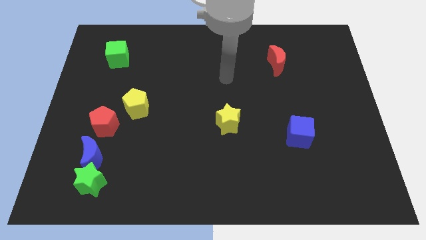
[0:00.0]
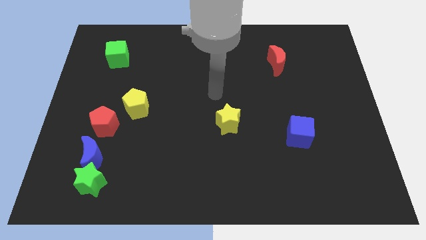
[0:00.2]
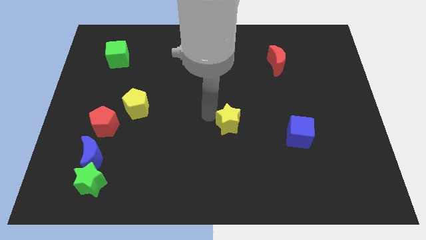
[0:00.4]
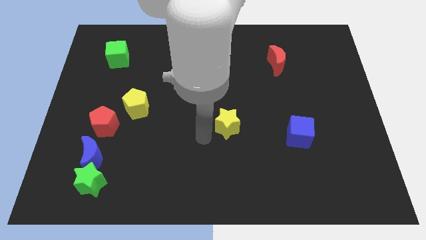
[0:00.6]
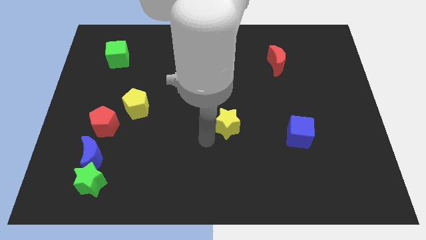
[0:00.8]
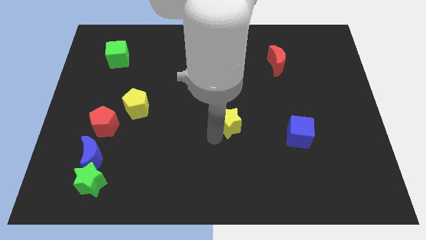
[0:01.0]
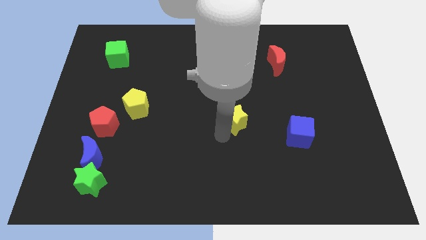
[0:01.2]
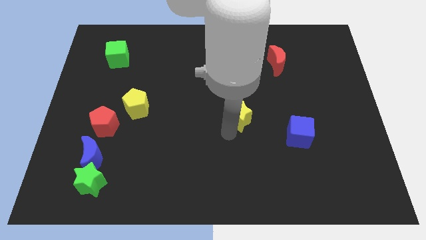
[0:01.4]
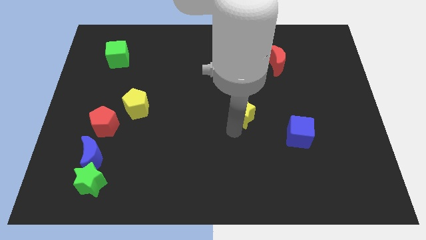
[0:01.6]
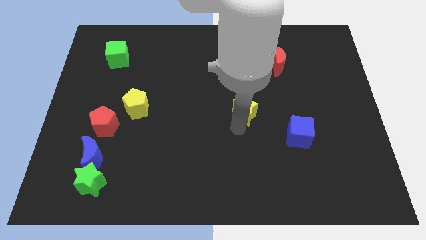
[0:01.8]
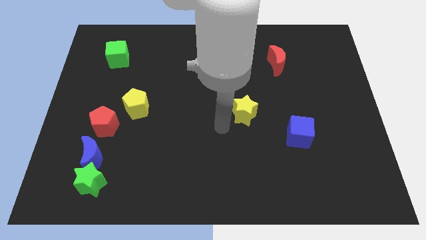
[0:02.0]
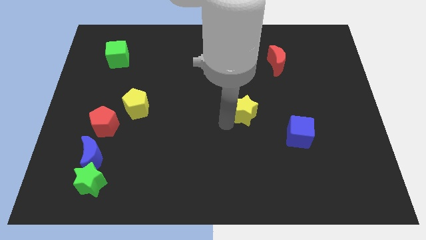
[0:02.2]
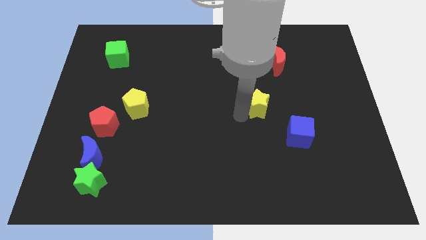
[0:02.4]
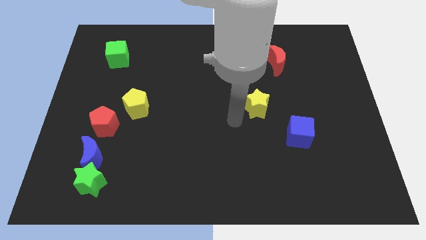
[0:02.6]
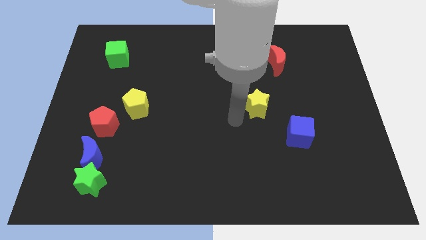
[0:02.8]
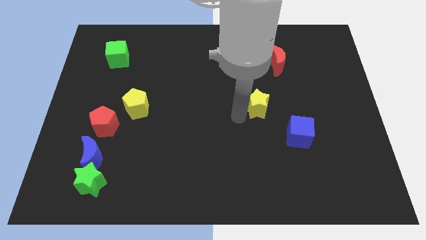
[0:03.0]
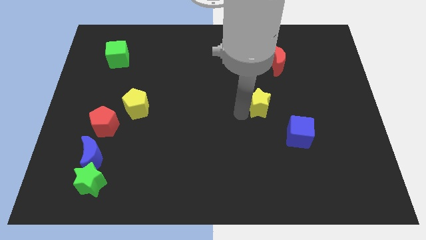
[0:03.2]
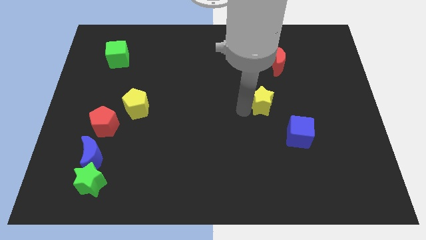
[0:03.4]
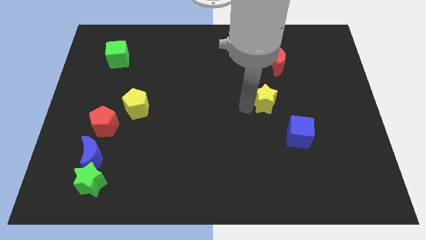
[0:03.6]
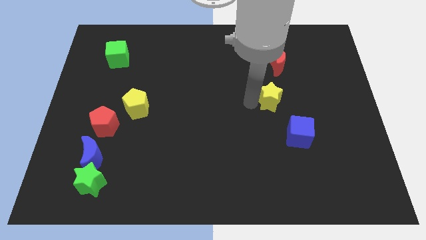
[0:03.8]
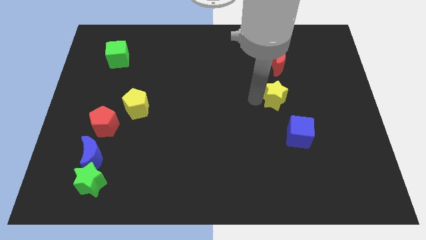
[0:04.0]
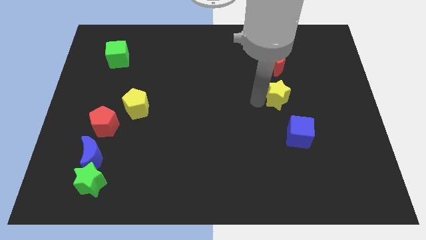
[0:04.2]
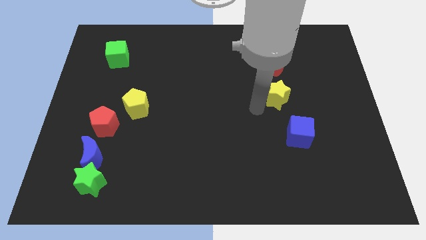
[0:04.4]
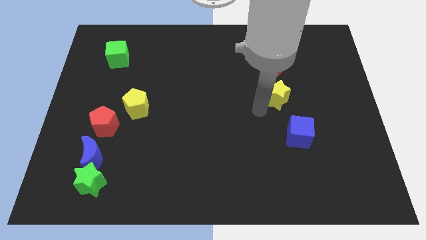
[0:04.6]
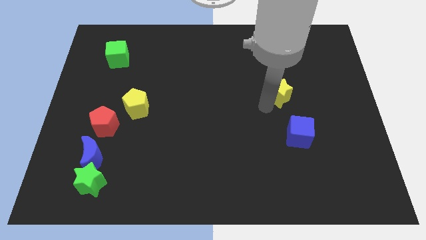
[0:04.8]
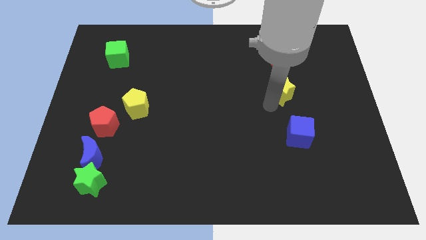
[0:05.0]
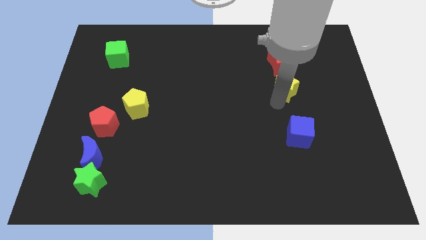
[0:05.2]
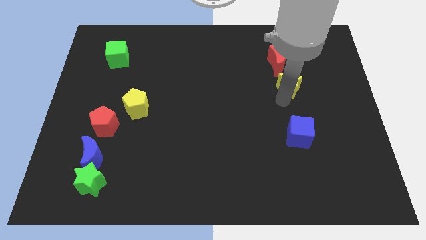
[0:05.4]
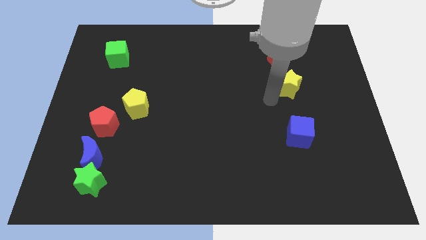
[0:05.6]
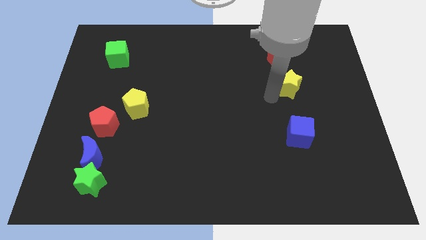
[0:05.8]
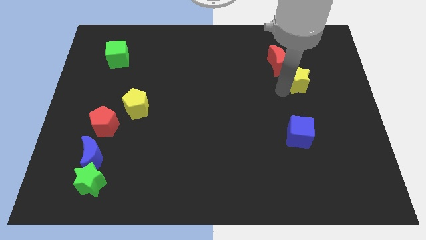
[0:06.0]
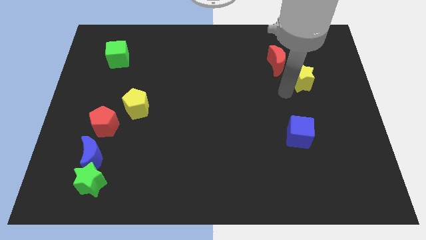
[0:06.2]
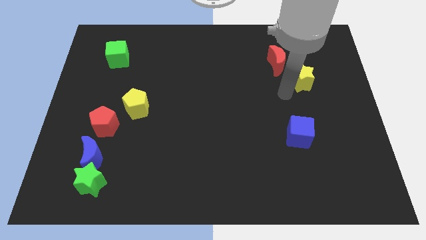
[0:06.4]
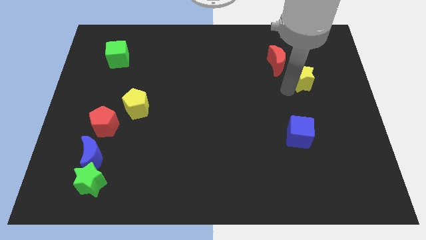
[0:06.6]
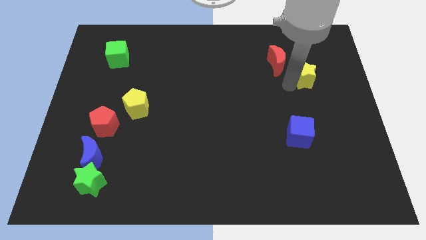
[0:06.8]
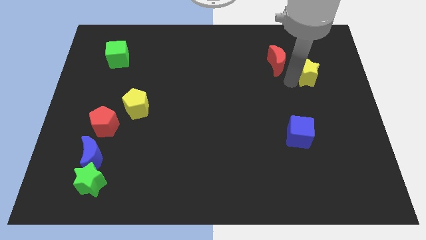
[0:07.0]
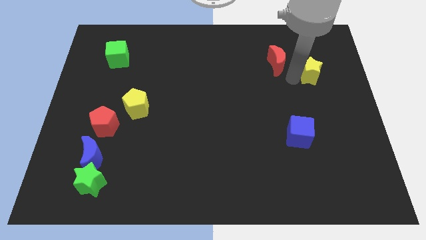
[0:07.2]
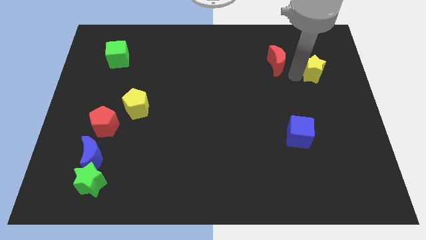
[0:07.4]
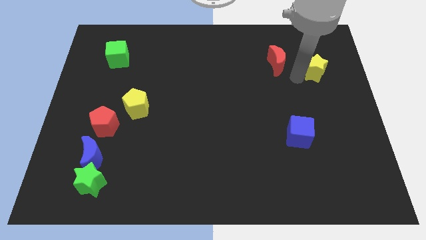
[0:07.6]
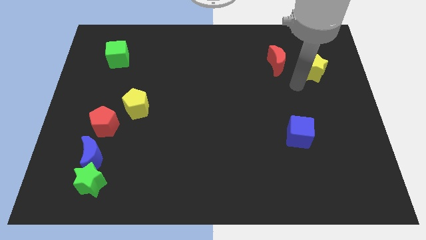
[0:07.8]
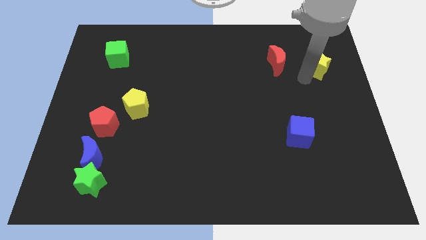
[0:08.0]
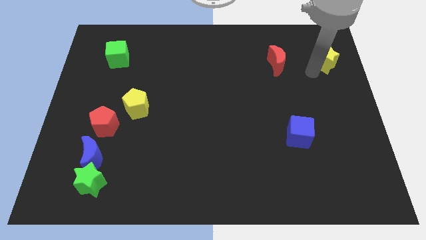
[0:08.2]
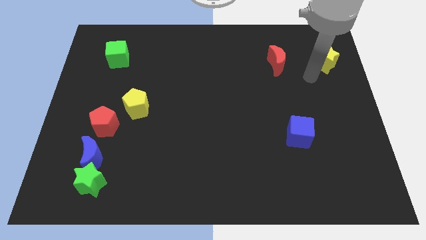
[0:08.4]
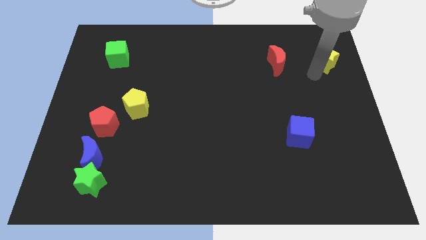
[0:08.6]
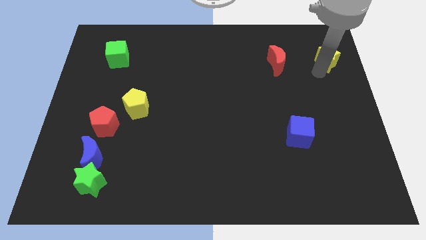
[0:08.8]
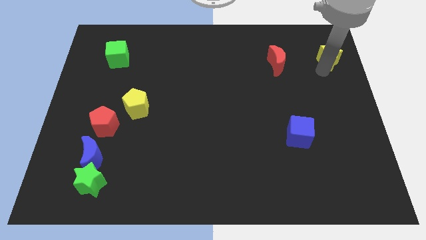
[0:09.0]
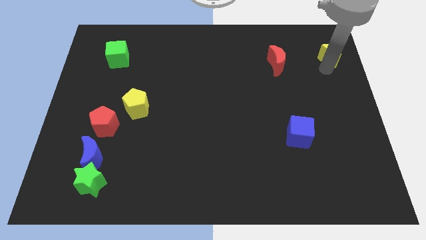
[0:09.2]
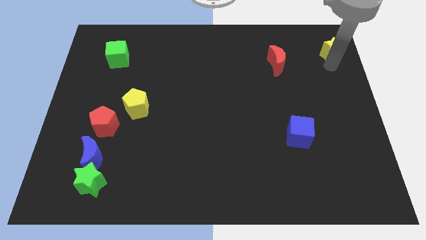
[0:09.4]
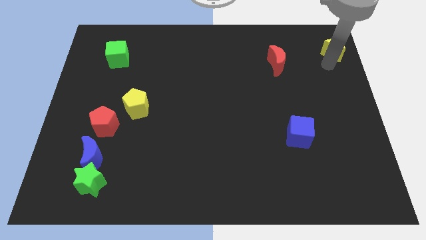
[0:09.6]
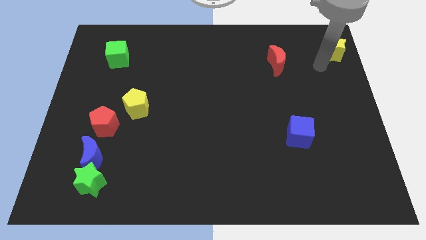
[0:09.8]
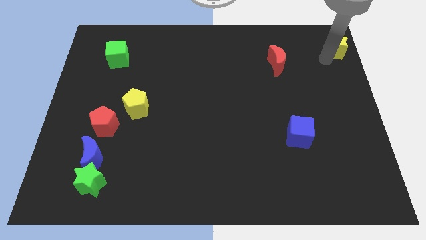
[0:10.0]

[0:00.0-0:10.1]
move the yellow star to the top right corner

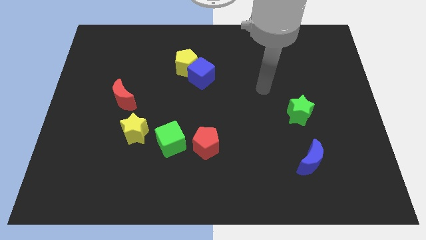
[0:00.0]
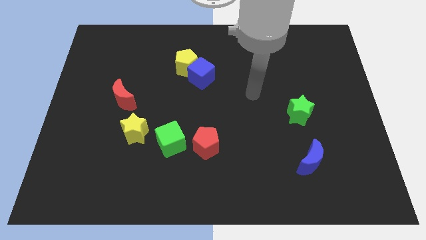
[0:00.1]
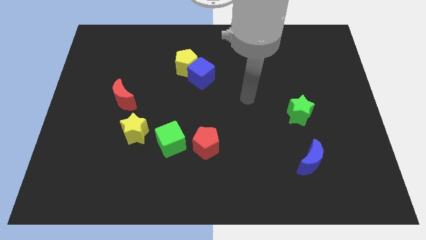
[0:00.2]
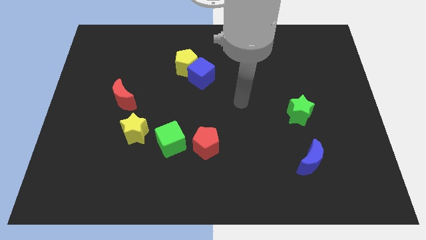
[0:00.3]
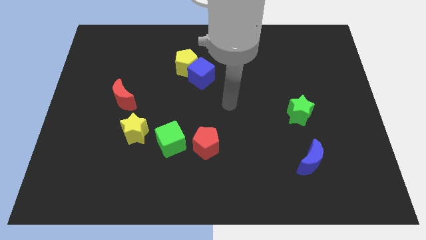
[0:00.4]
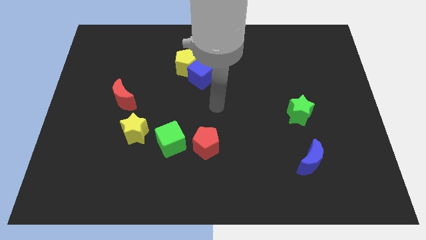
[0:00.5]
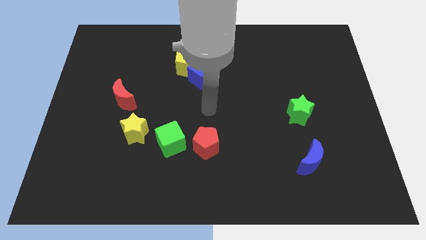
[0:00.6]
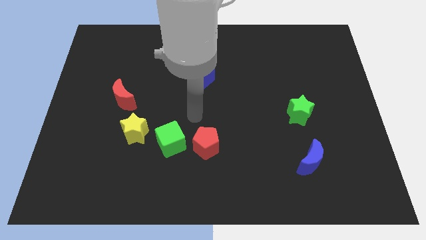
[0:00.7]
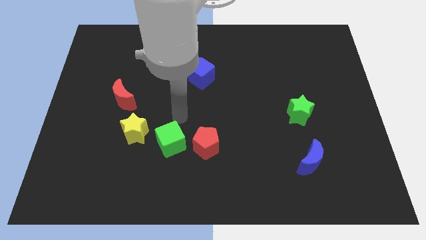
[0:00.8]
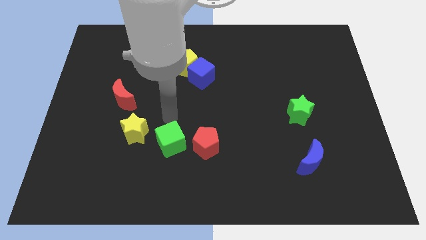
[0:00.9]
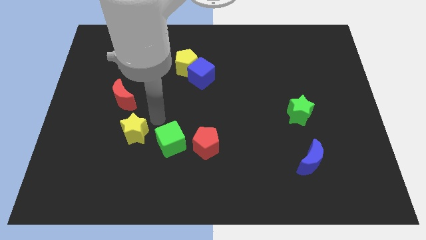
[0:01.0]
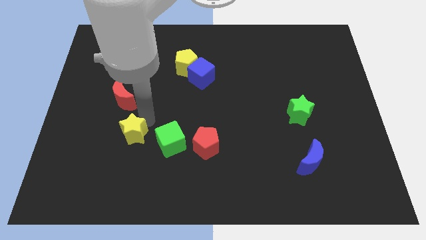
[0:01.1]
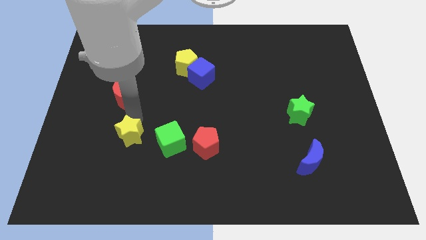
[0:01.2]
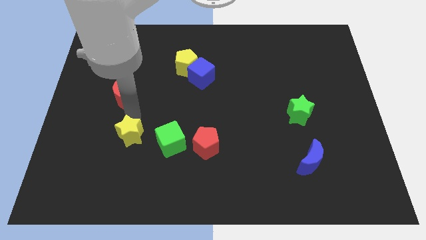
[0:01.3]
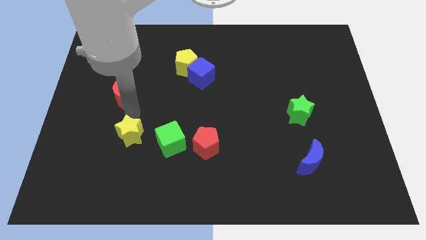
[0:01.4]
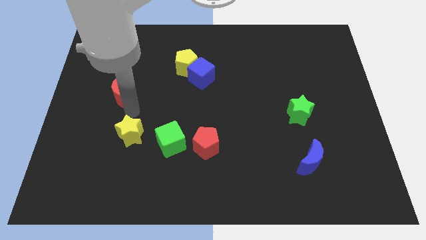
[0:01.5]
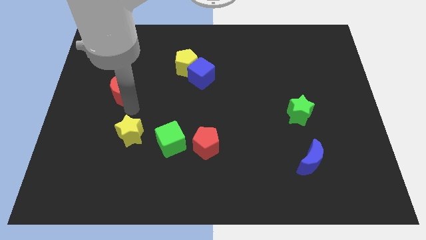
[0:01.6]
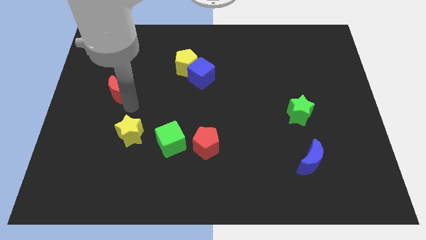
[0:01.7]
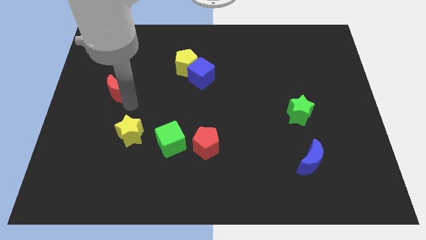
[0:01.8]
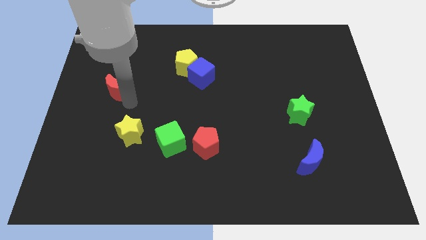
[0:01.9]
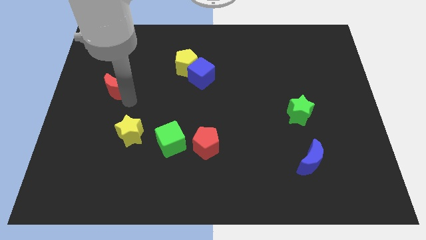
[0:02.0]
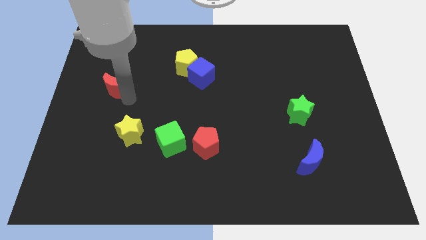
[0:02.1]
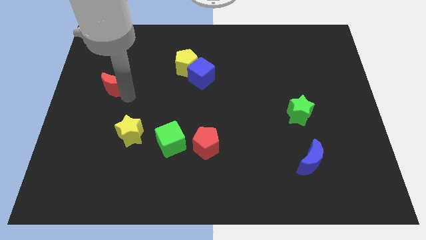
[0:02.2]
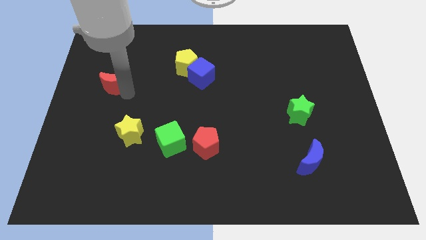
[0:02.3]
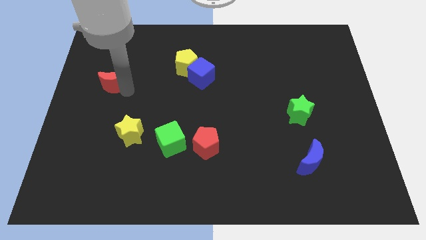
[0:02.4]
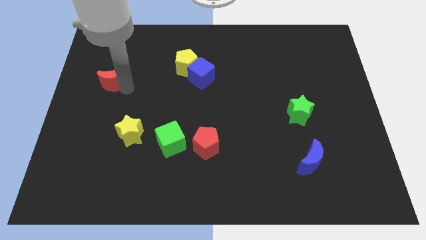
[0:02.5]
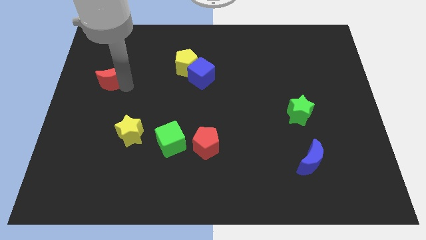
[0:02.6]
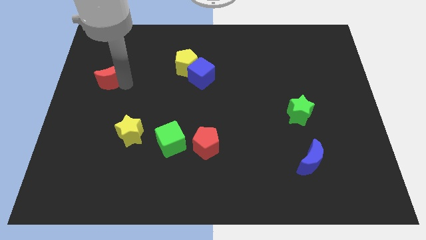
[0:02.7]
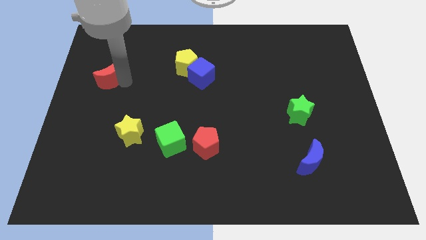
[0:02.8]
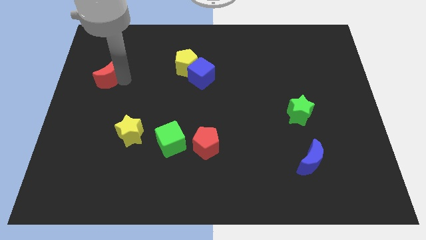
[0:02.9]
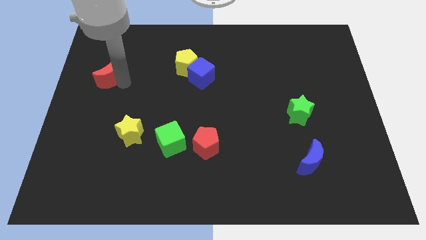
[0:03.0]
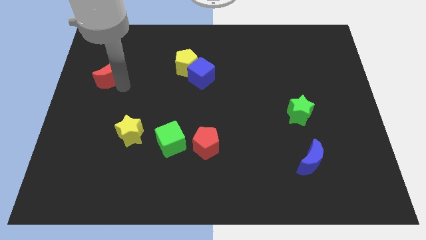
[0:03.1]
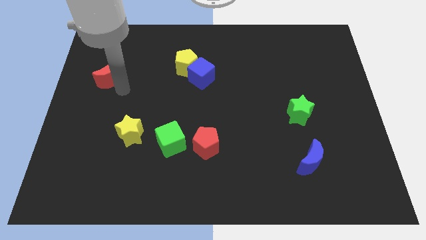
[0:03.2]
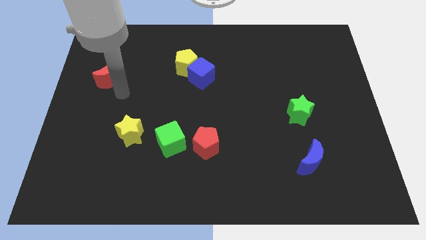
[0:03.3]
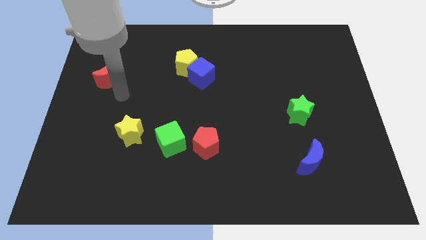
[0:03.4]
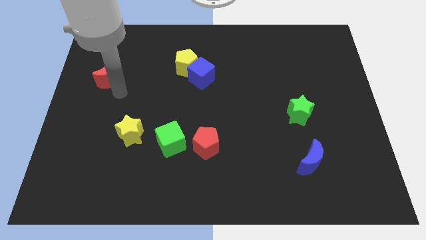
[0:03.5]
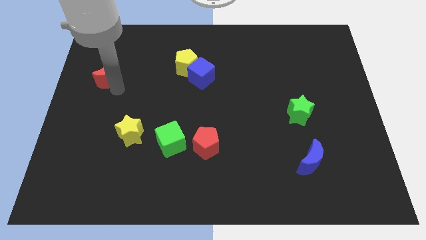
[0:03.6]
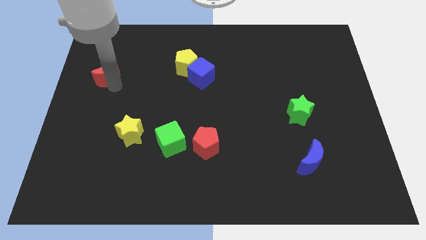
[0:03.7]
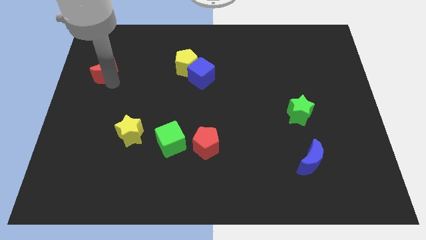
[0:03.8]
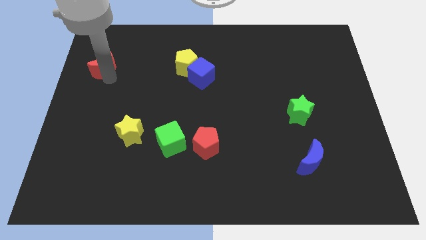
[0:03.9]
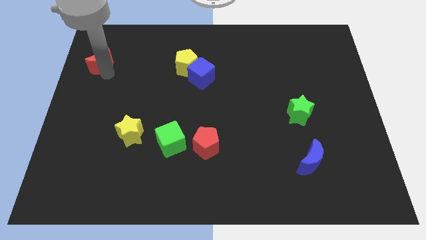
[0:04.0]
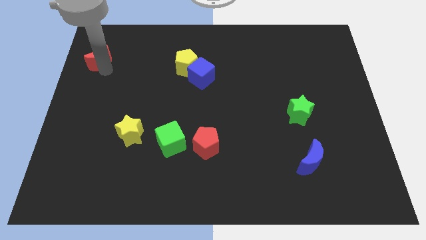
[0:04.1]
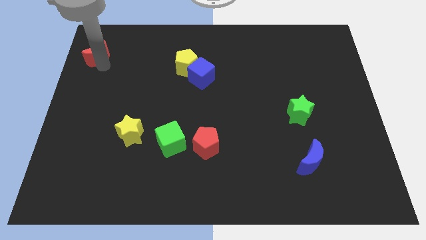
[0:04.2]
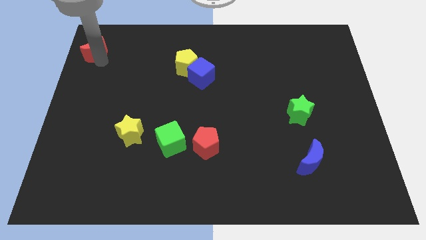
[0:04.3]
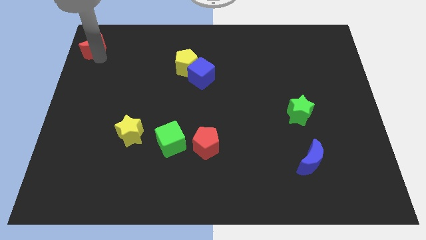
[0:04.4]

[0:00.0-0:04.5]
push the red moon to the upper left corner
